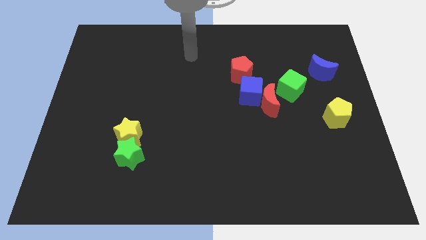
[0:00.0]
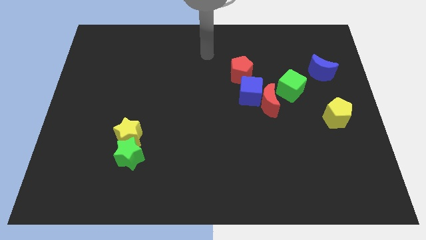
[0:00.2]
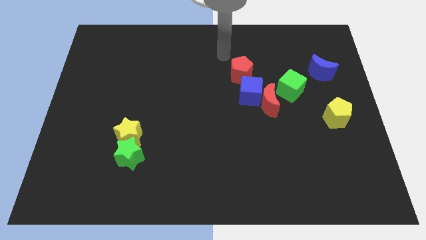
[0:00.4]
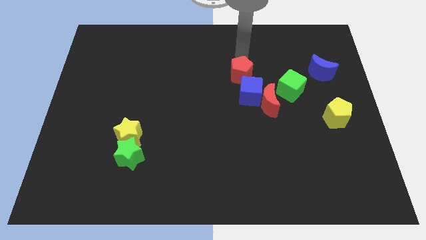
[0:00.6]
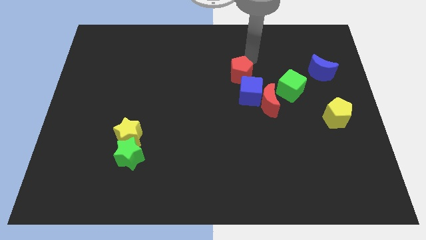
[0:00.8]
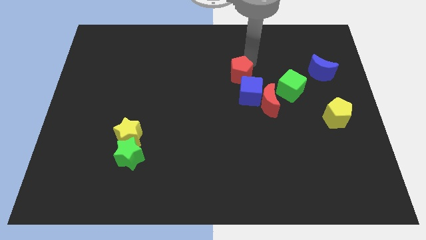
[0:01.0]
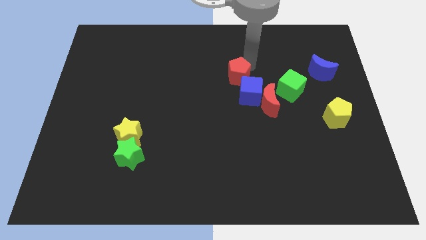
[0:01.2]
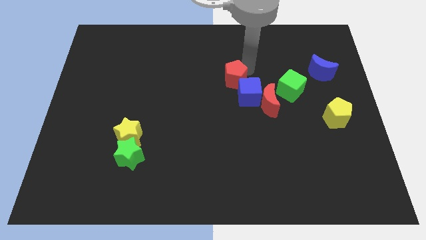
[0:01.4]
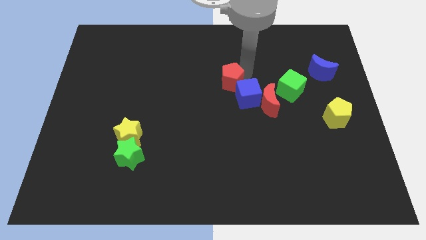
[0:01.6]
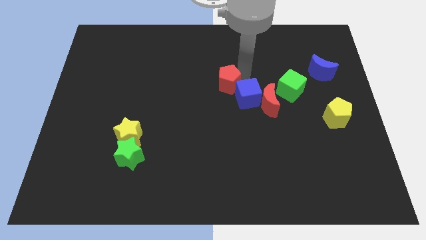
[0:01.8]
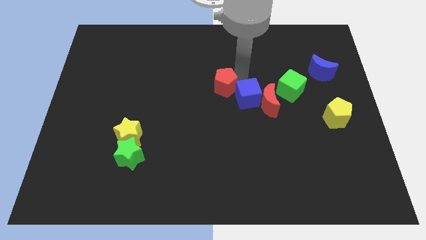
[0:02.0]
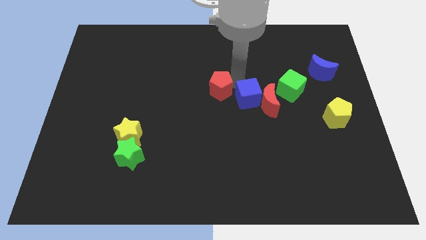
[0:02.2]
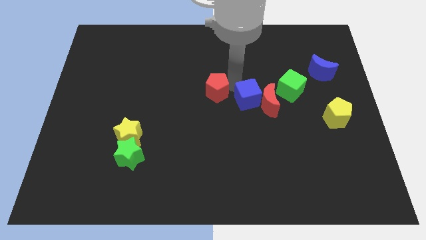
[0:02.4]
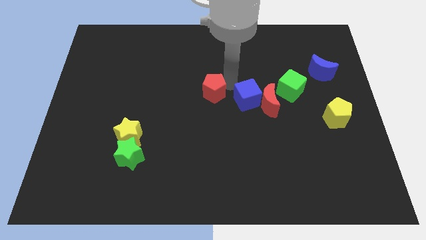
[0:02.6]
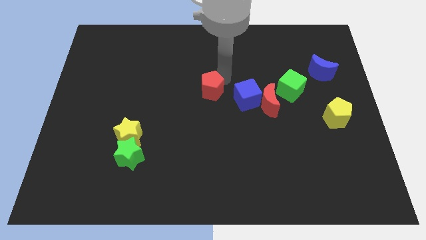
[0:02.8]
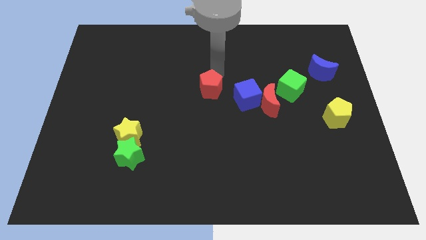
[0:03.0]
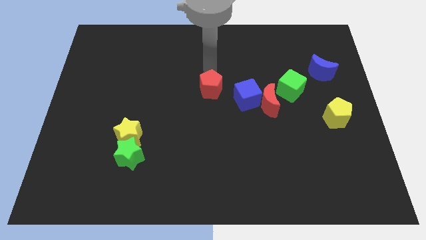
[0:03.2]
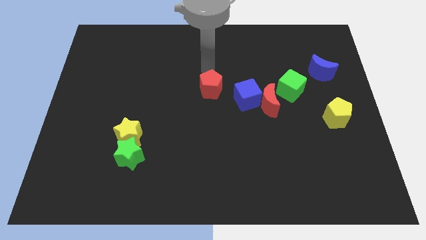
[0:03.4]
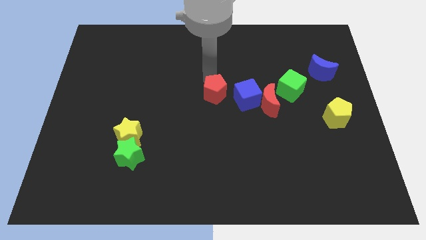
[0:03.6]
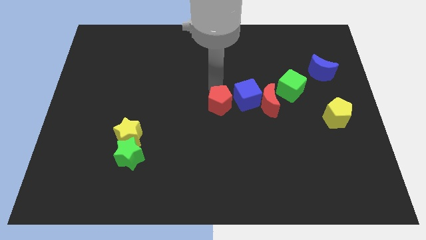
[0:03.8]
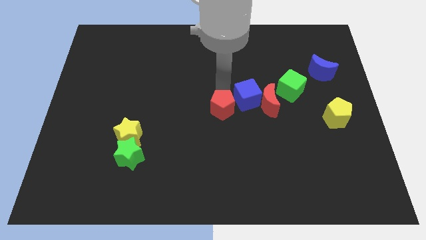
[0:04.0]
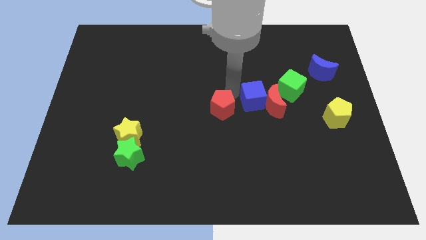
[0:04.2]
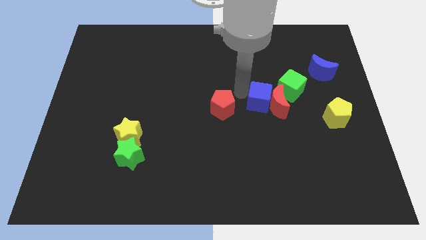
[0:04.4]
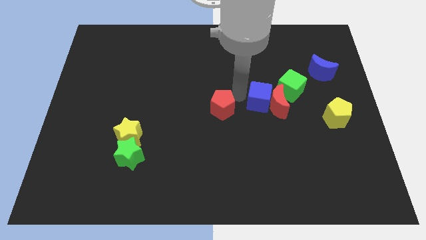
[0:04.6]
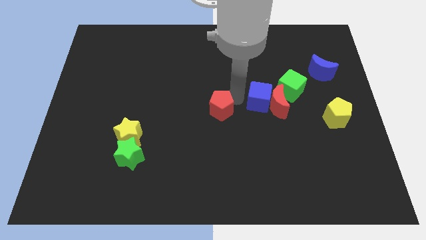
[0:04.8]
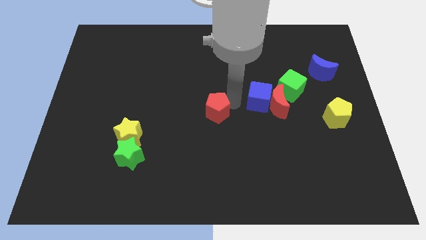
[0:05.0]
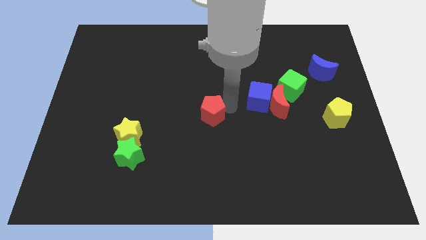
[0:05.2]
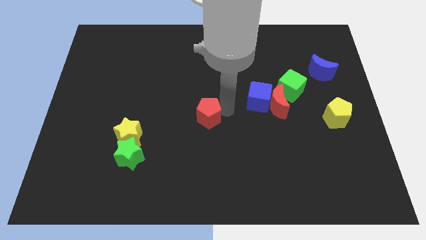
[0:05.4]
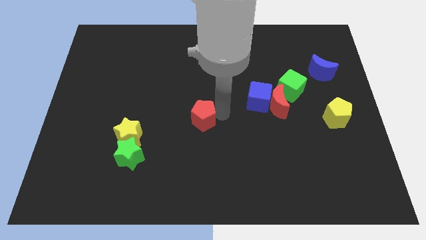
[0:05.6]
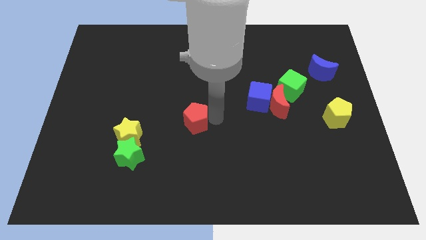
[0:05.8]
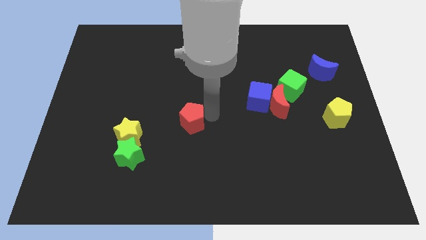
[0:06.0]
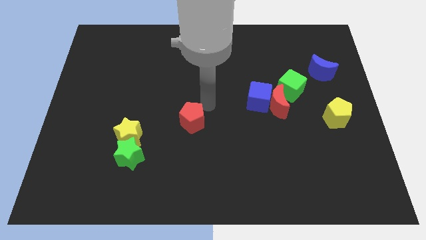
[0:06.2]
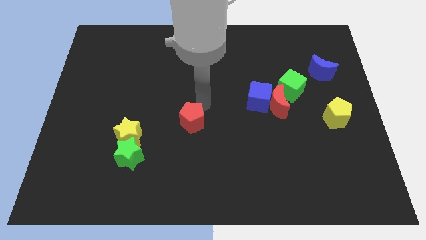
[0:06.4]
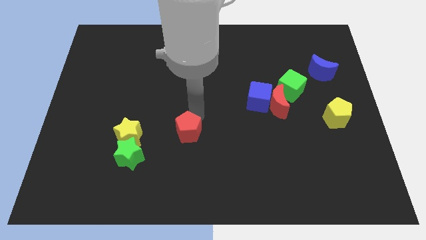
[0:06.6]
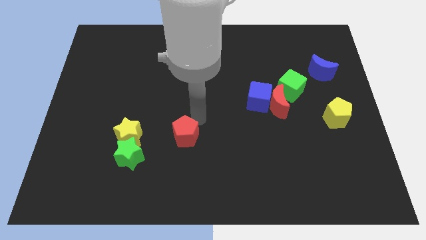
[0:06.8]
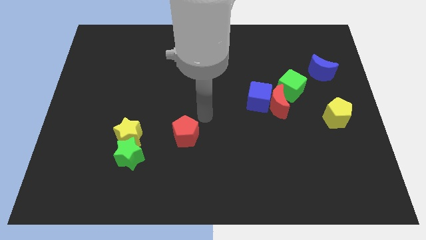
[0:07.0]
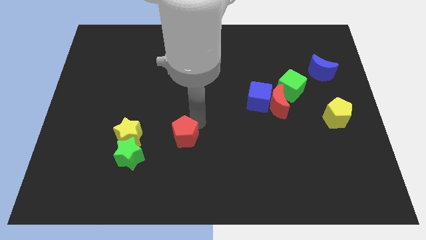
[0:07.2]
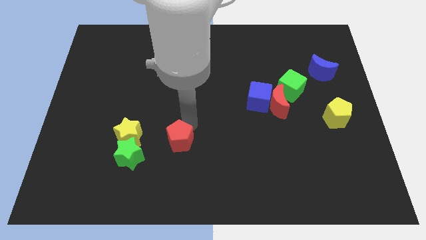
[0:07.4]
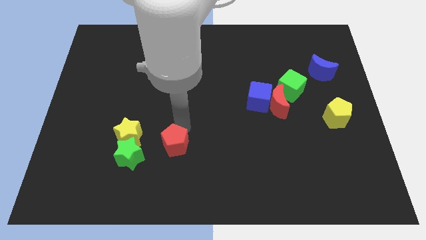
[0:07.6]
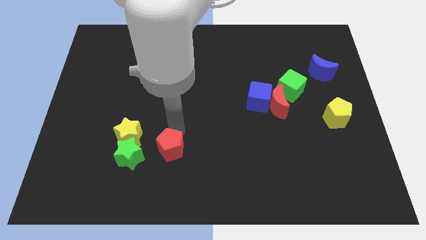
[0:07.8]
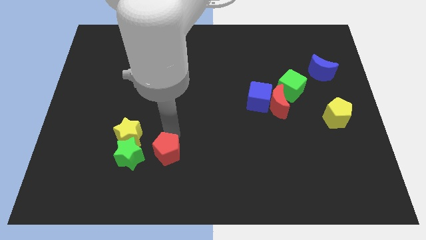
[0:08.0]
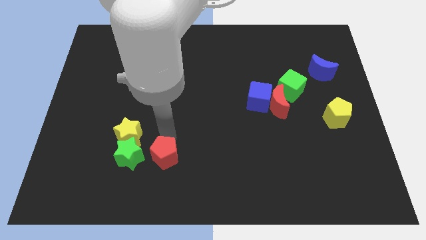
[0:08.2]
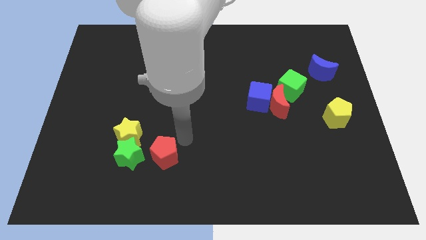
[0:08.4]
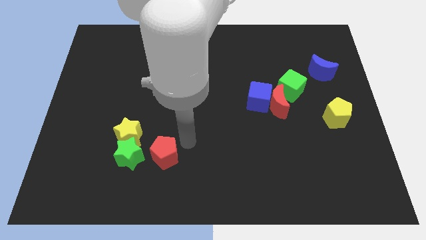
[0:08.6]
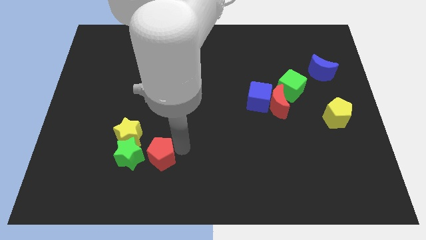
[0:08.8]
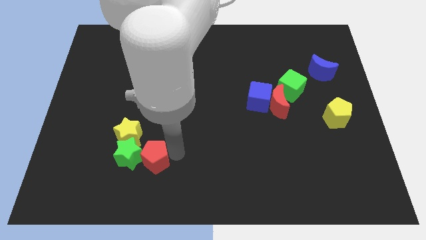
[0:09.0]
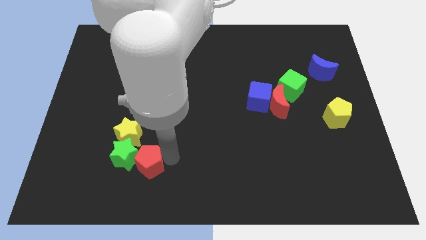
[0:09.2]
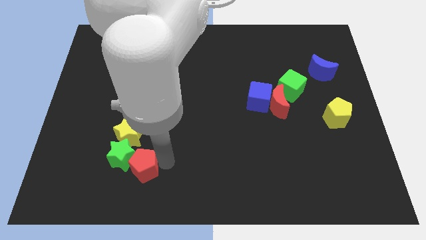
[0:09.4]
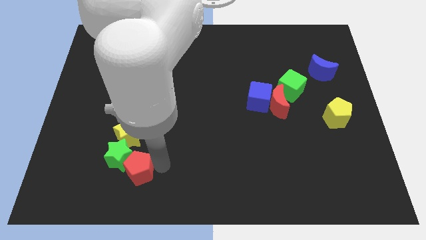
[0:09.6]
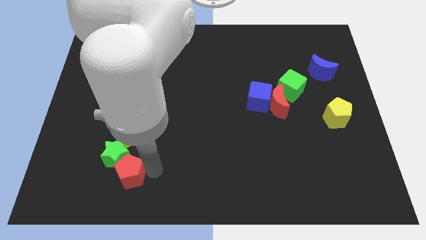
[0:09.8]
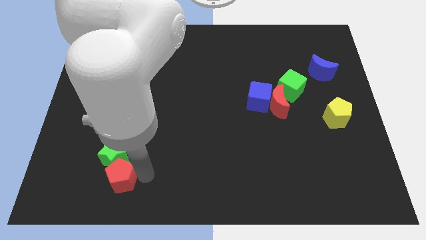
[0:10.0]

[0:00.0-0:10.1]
push the red pentagon to the bottom left of the green star
